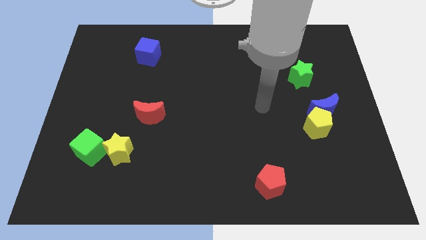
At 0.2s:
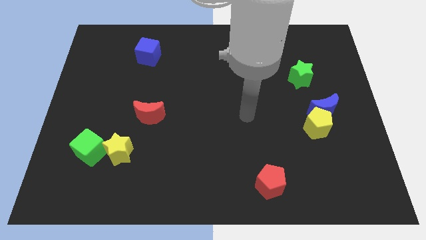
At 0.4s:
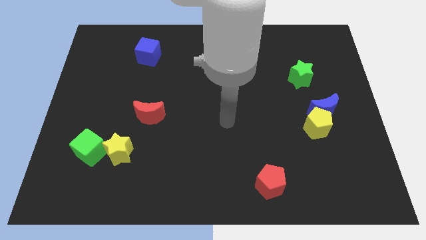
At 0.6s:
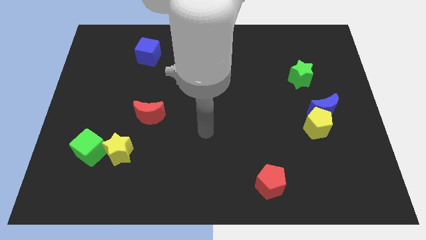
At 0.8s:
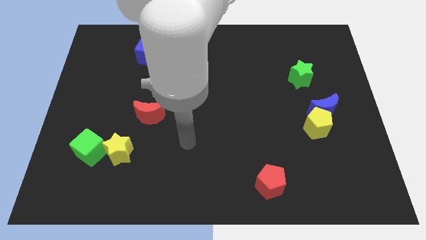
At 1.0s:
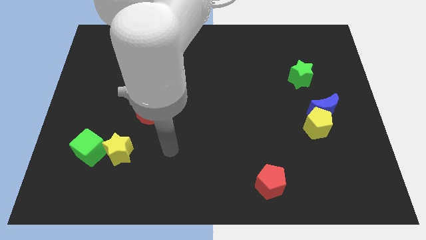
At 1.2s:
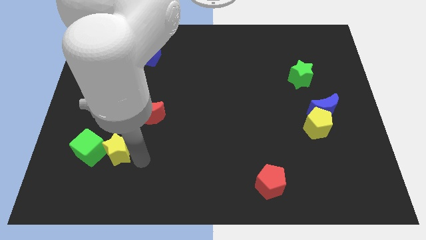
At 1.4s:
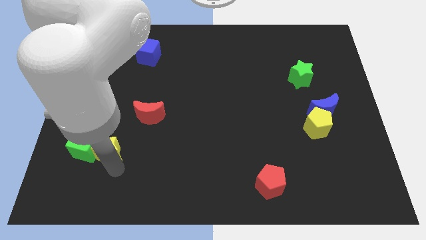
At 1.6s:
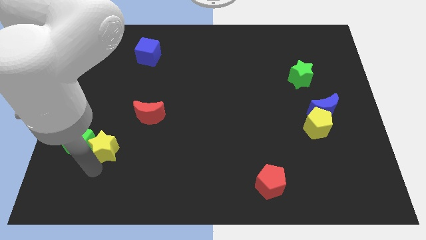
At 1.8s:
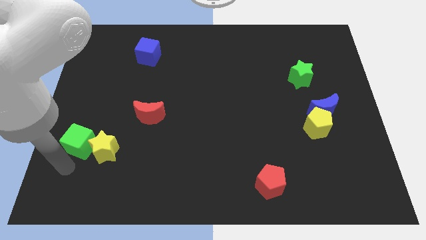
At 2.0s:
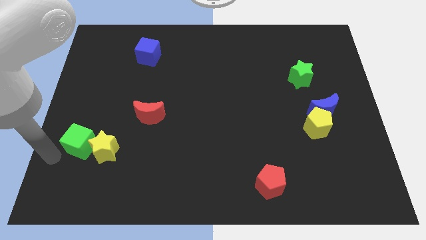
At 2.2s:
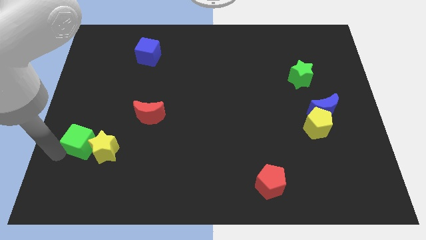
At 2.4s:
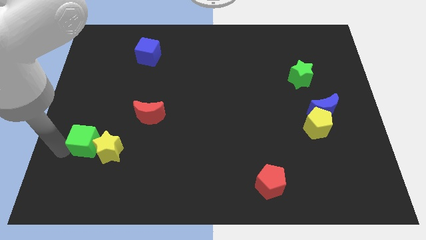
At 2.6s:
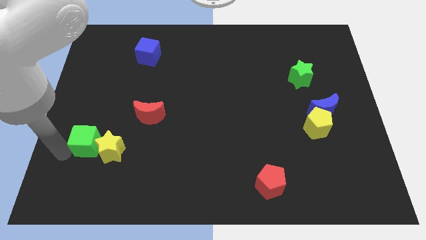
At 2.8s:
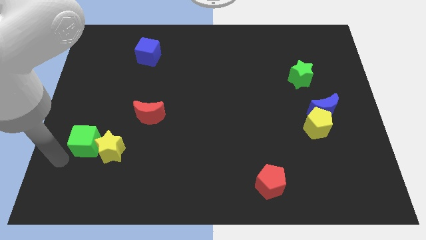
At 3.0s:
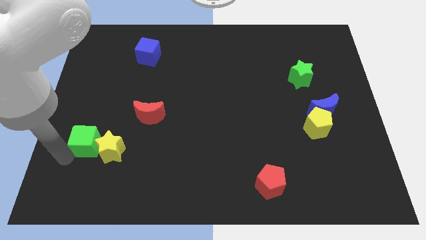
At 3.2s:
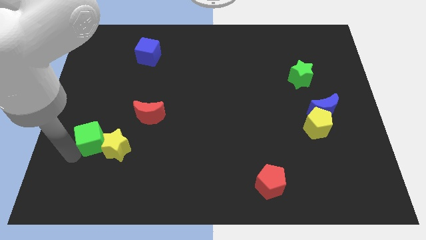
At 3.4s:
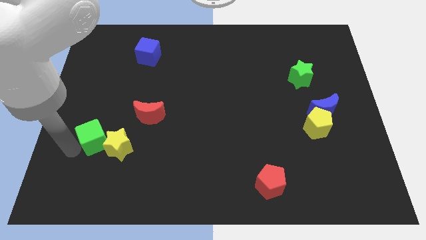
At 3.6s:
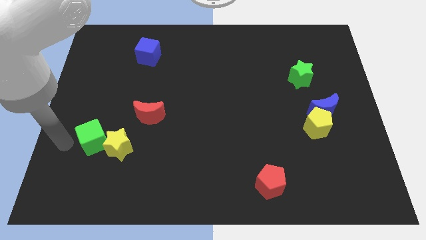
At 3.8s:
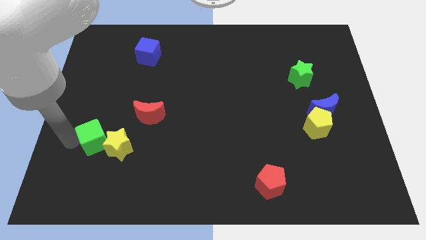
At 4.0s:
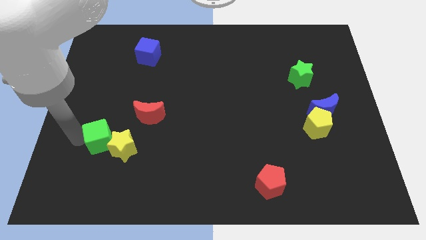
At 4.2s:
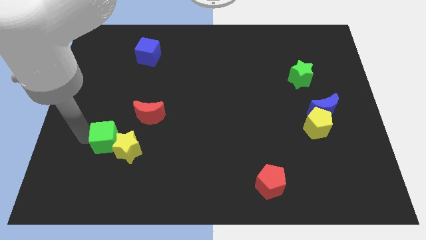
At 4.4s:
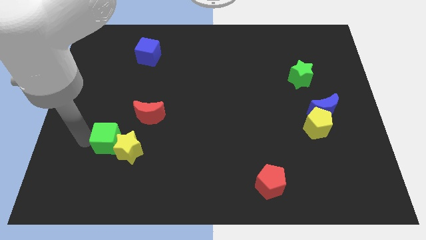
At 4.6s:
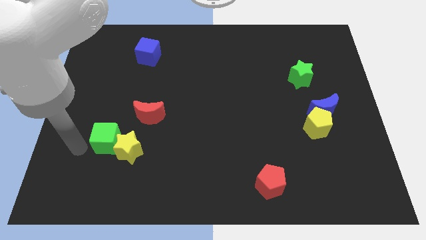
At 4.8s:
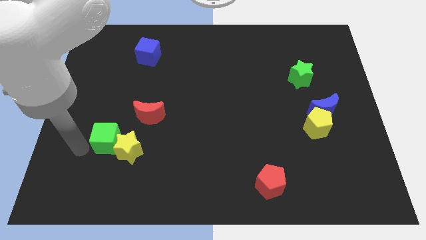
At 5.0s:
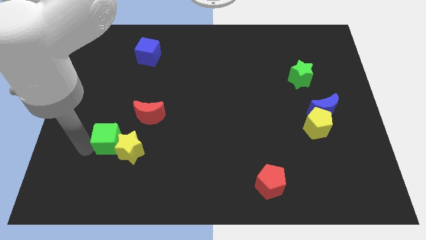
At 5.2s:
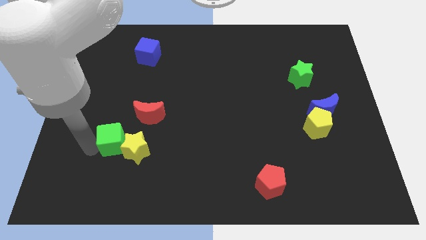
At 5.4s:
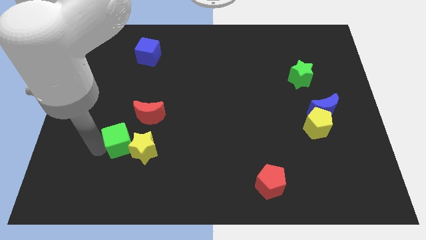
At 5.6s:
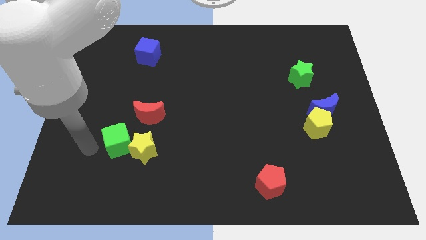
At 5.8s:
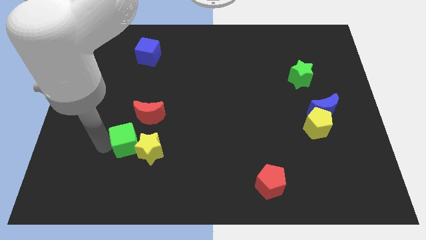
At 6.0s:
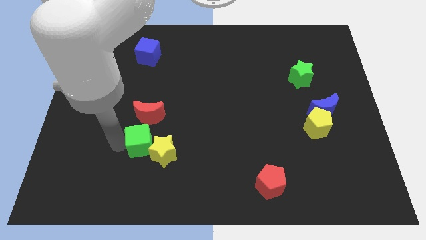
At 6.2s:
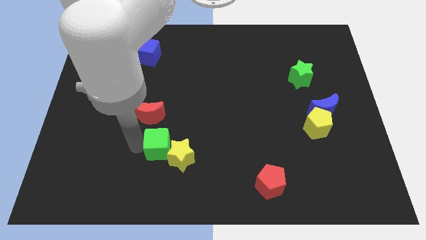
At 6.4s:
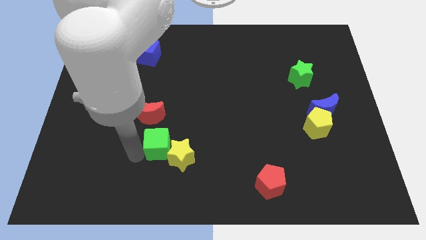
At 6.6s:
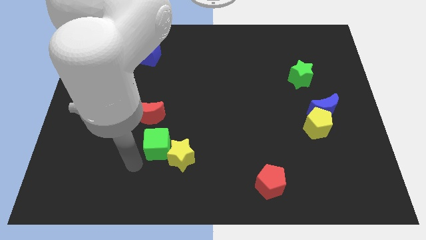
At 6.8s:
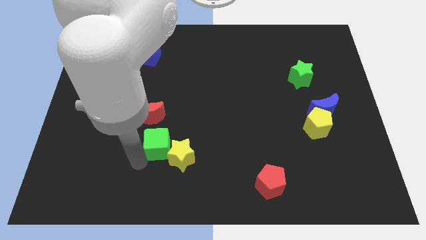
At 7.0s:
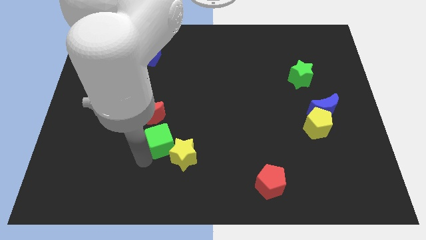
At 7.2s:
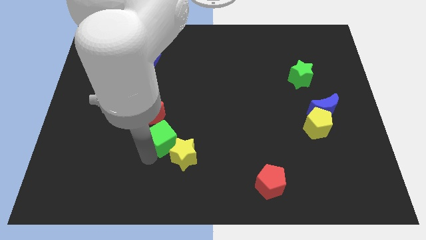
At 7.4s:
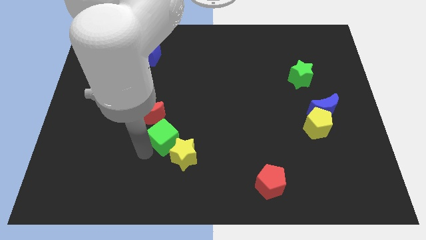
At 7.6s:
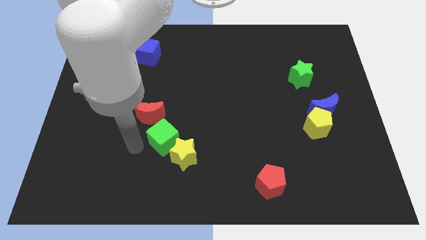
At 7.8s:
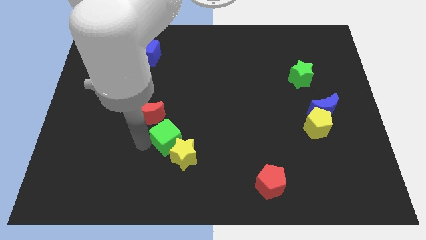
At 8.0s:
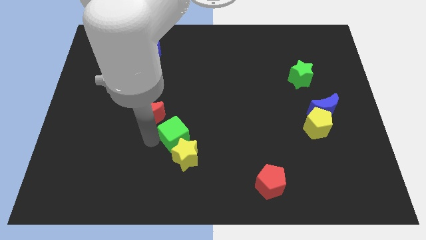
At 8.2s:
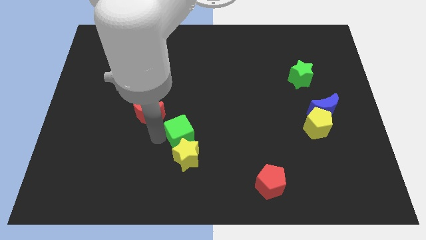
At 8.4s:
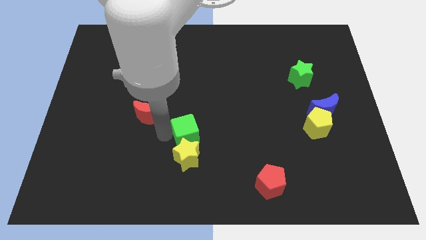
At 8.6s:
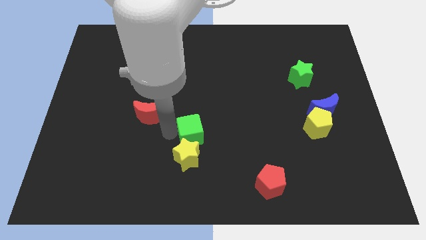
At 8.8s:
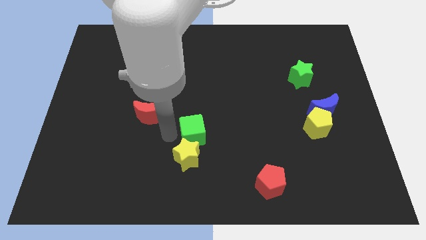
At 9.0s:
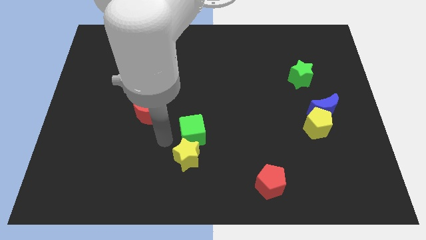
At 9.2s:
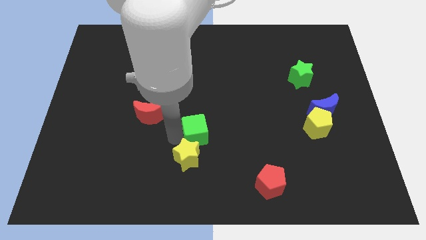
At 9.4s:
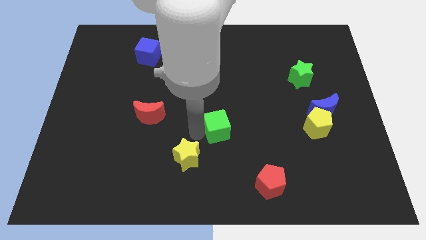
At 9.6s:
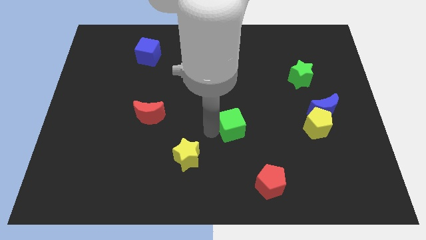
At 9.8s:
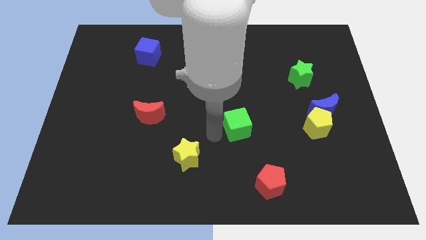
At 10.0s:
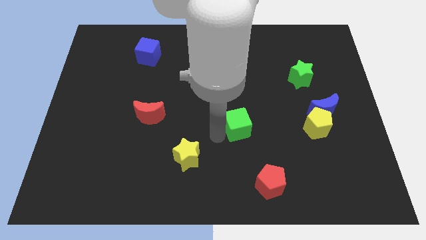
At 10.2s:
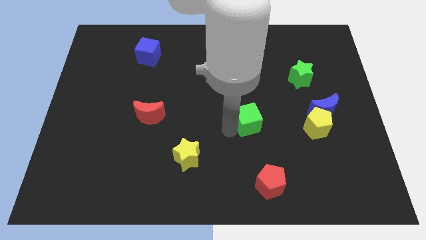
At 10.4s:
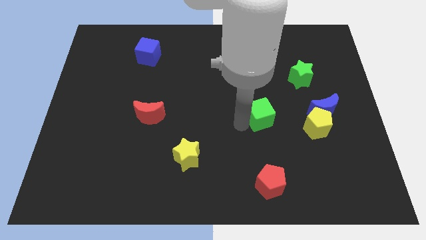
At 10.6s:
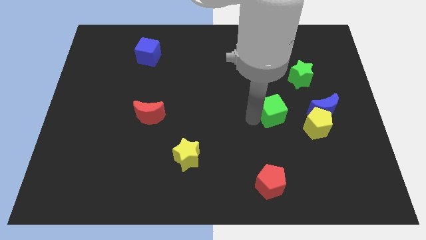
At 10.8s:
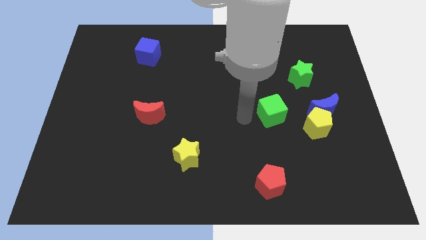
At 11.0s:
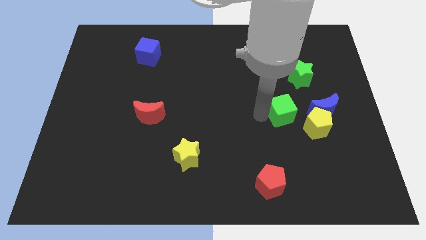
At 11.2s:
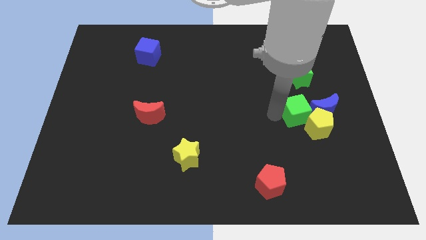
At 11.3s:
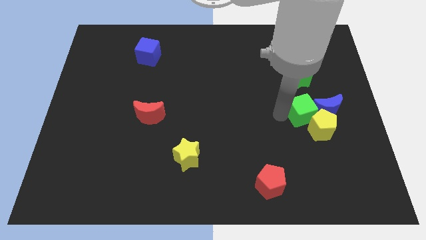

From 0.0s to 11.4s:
slide the green cube next to the blue moon

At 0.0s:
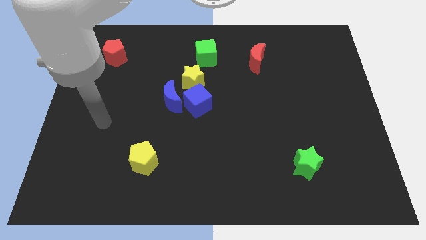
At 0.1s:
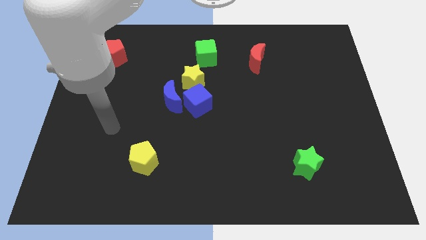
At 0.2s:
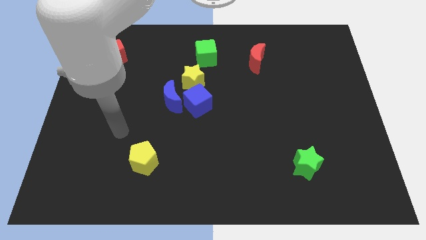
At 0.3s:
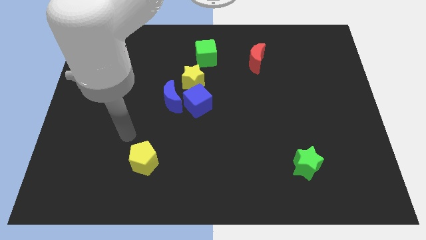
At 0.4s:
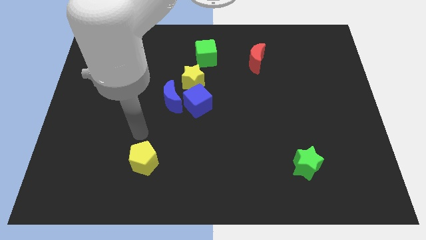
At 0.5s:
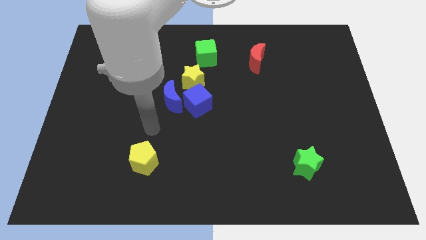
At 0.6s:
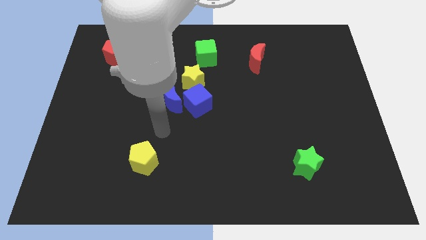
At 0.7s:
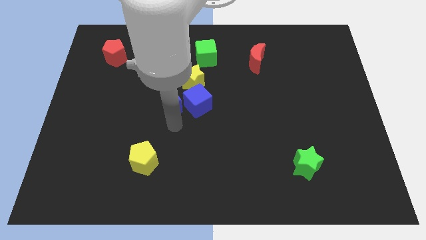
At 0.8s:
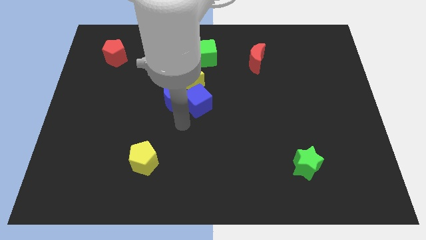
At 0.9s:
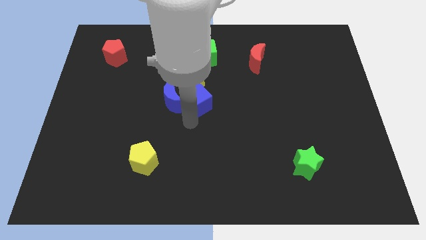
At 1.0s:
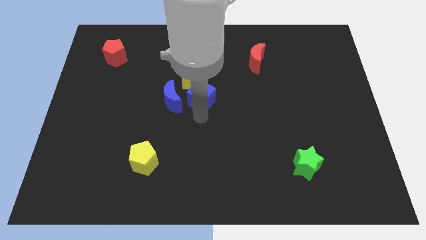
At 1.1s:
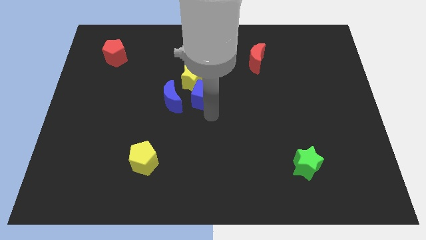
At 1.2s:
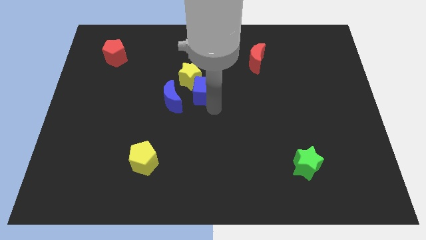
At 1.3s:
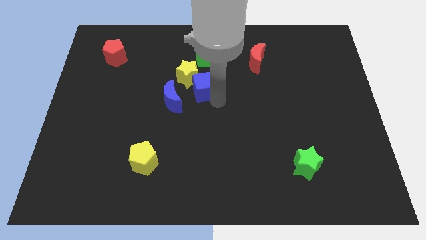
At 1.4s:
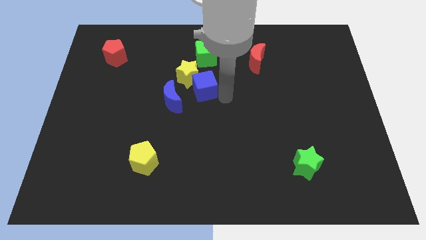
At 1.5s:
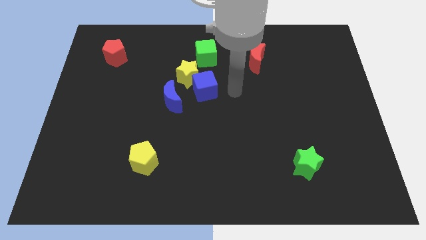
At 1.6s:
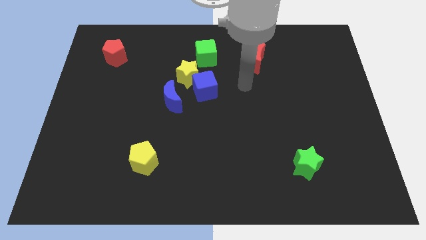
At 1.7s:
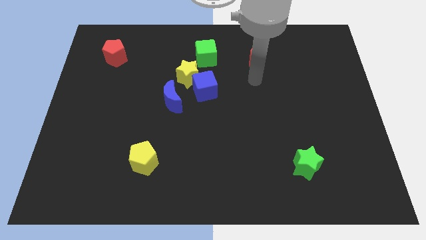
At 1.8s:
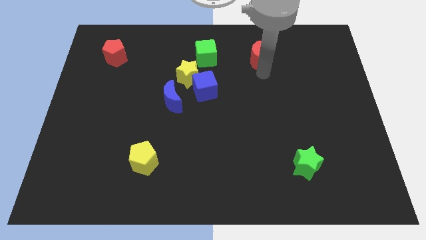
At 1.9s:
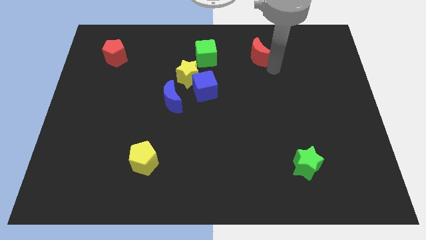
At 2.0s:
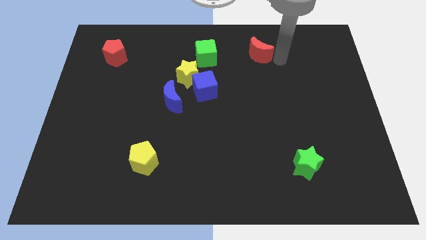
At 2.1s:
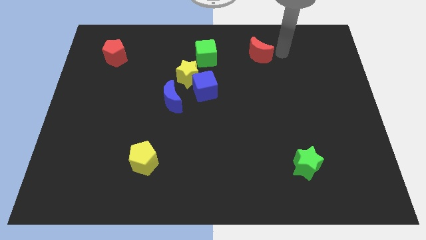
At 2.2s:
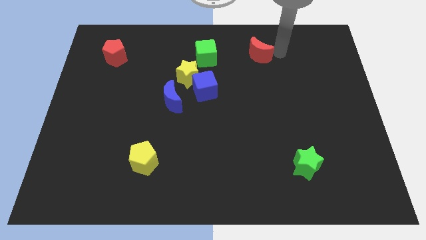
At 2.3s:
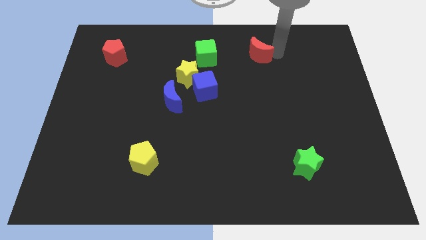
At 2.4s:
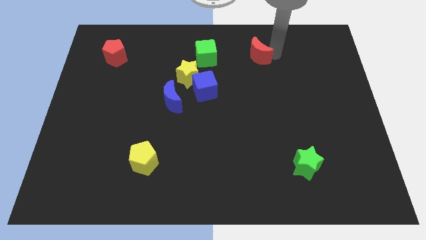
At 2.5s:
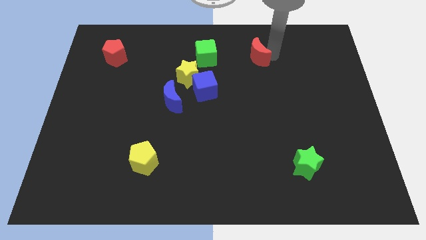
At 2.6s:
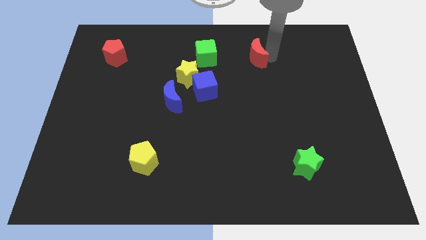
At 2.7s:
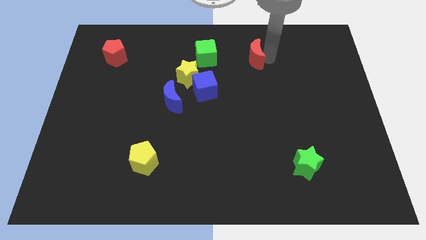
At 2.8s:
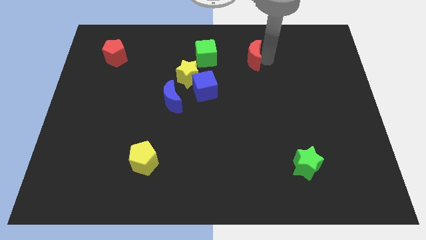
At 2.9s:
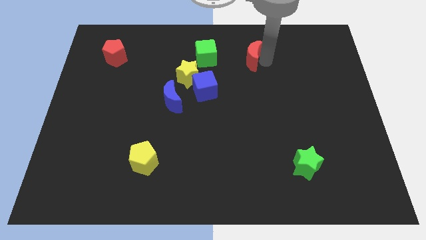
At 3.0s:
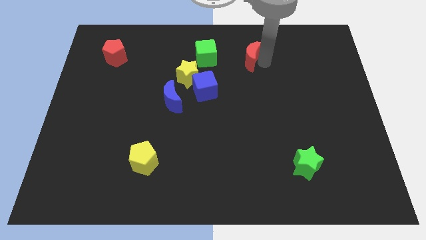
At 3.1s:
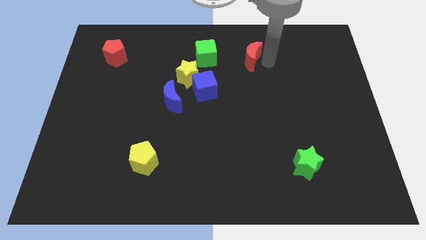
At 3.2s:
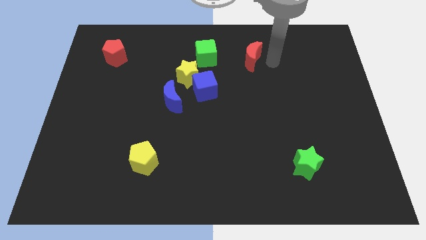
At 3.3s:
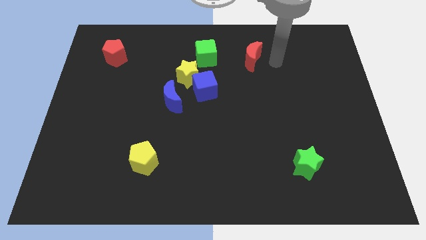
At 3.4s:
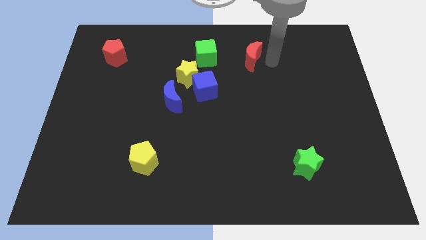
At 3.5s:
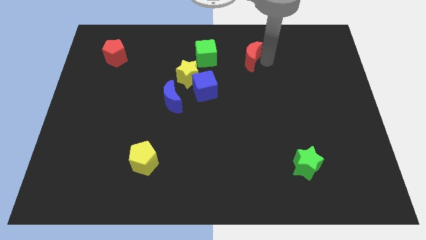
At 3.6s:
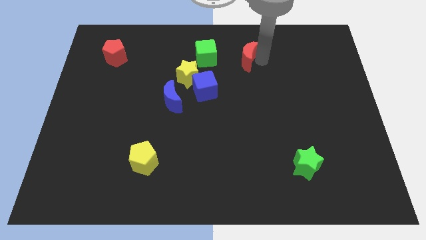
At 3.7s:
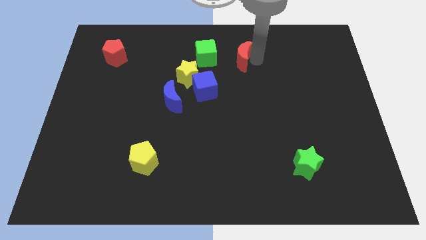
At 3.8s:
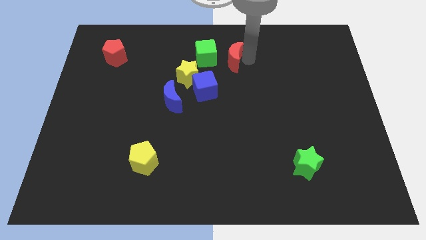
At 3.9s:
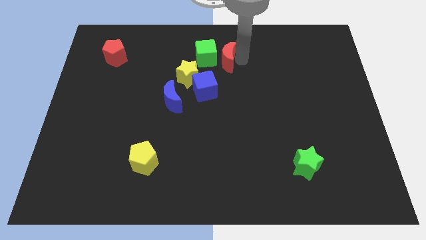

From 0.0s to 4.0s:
push the red moon close to the green cube
